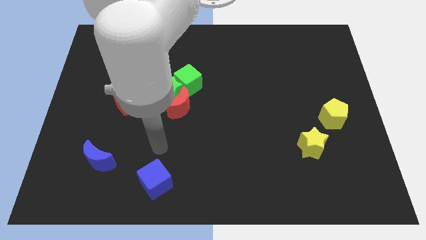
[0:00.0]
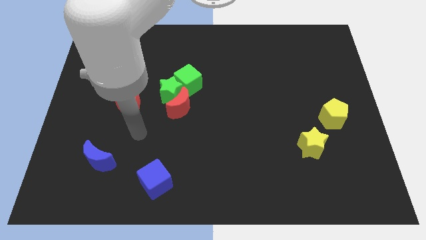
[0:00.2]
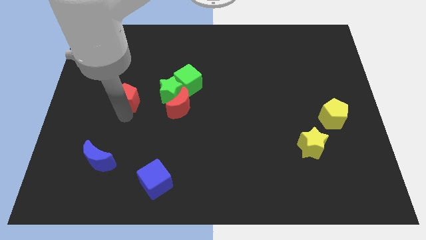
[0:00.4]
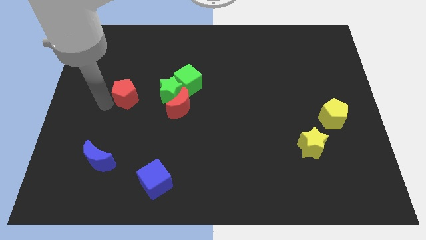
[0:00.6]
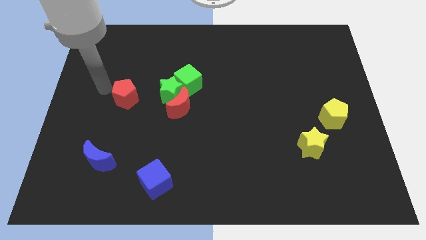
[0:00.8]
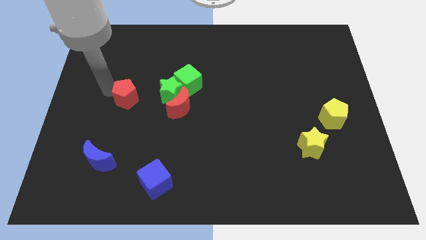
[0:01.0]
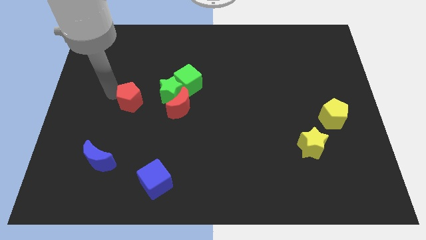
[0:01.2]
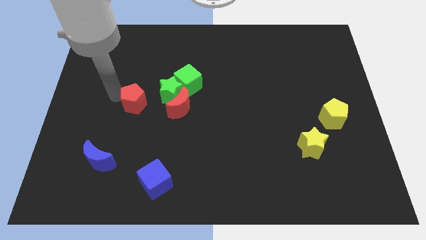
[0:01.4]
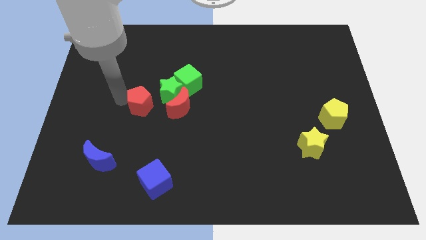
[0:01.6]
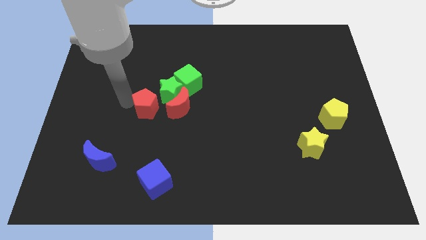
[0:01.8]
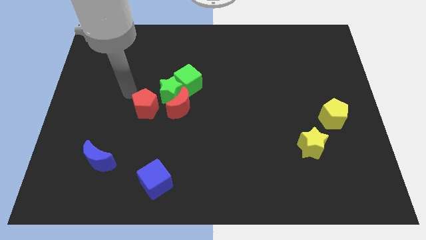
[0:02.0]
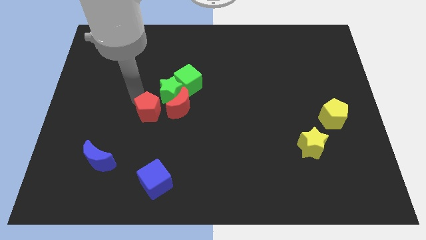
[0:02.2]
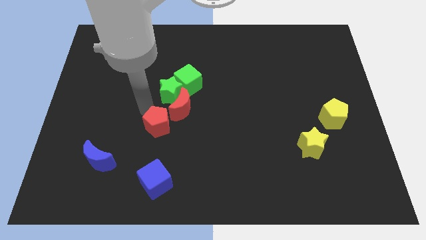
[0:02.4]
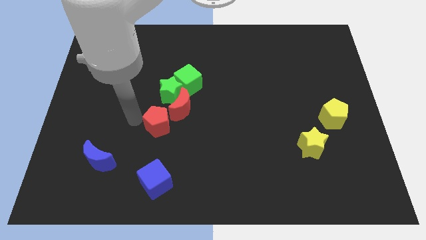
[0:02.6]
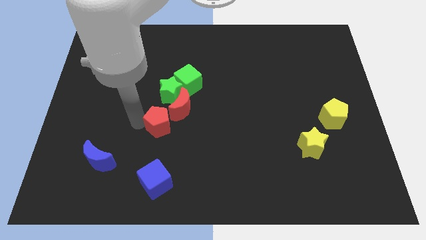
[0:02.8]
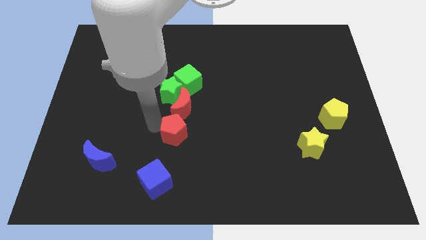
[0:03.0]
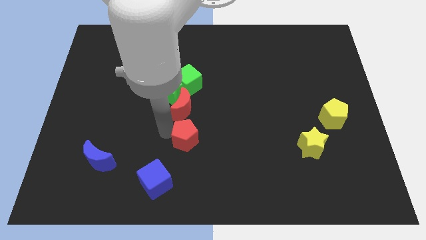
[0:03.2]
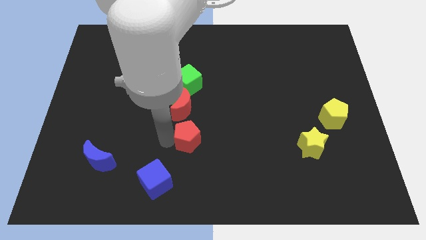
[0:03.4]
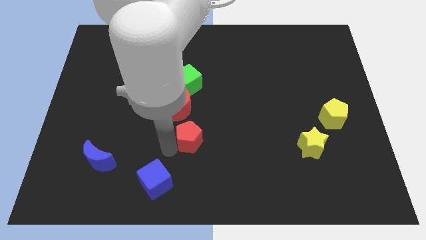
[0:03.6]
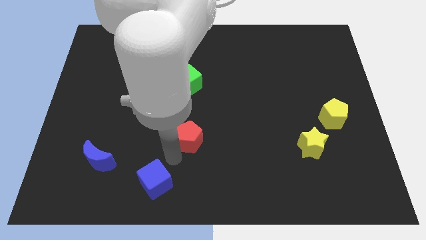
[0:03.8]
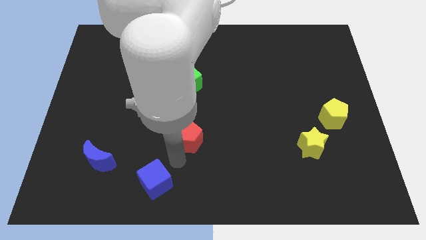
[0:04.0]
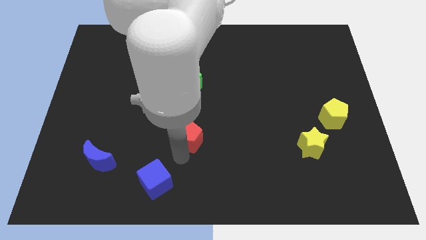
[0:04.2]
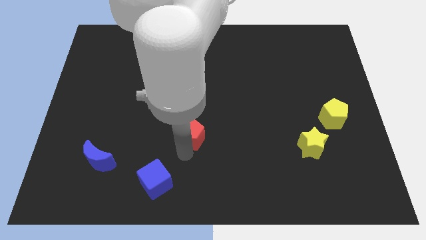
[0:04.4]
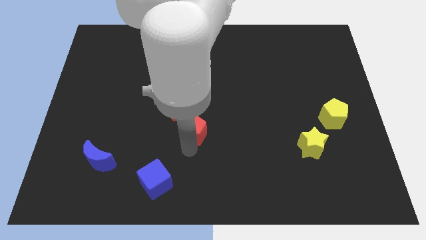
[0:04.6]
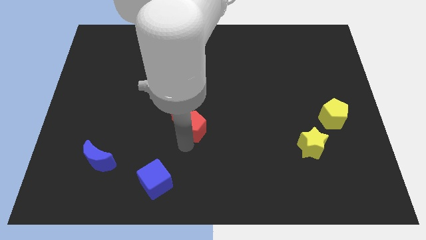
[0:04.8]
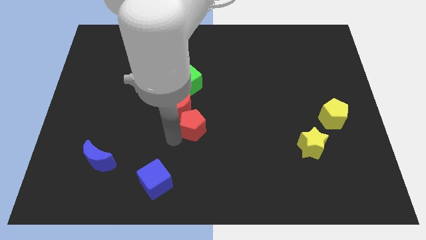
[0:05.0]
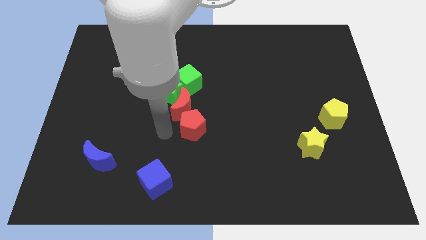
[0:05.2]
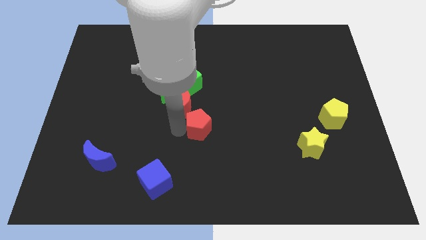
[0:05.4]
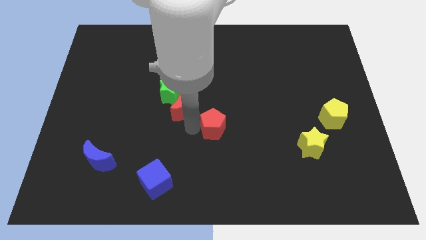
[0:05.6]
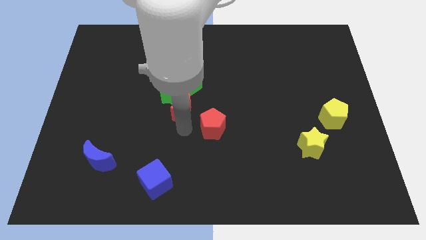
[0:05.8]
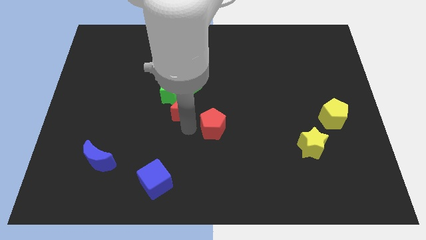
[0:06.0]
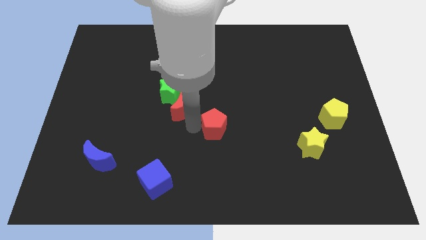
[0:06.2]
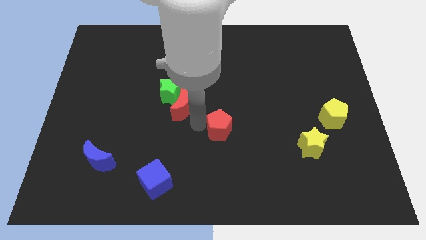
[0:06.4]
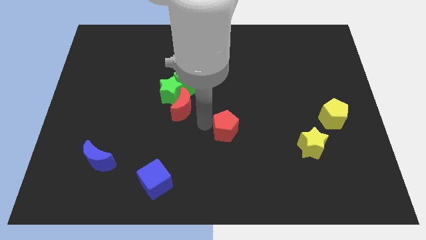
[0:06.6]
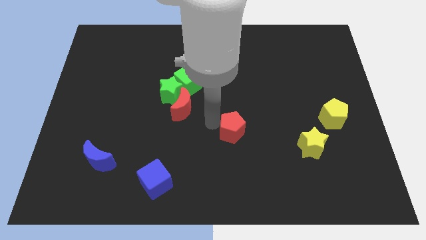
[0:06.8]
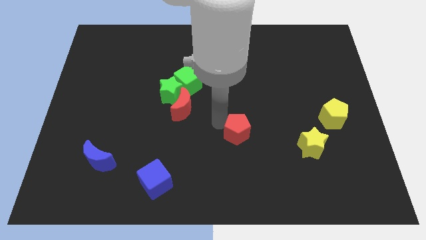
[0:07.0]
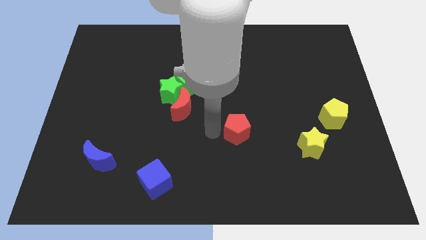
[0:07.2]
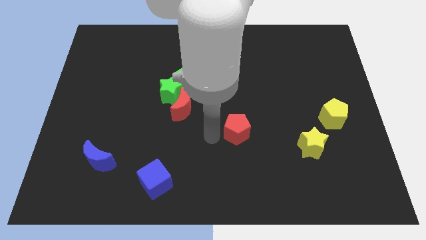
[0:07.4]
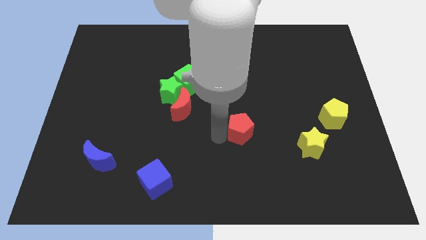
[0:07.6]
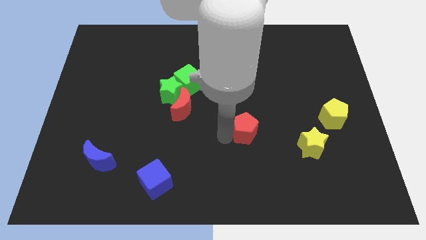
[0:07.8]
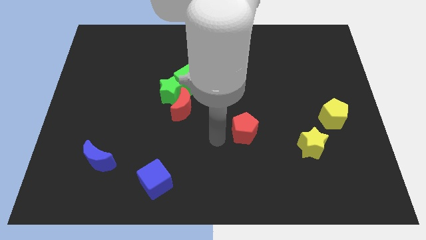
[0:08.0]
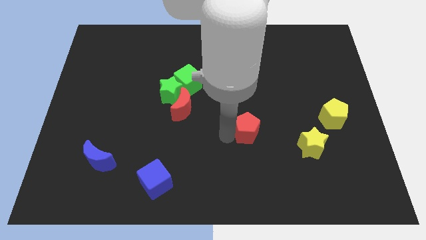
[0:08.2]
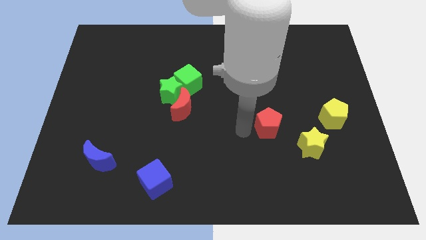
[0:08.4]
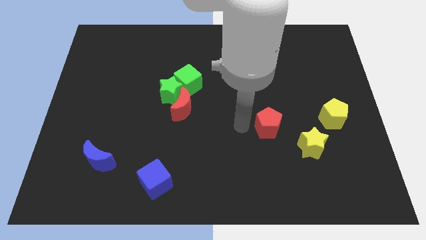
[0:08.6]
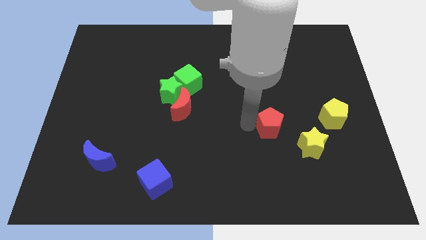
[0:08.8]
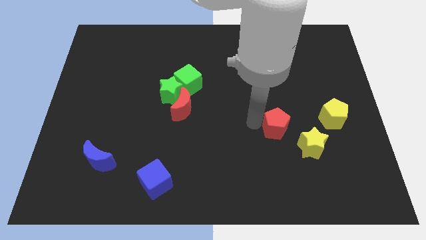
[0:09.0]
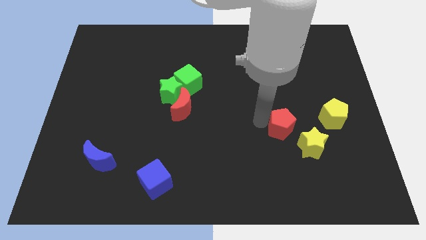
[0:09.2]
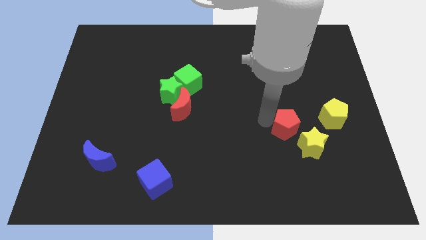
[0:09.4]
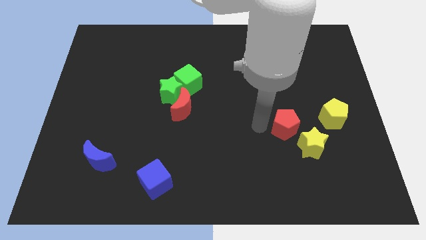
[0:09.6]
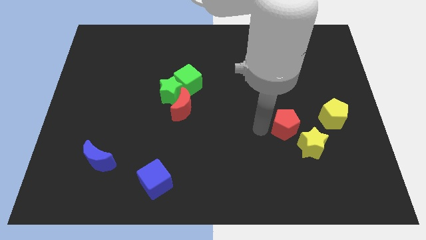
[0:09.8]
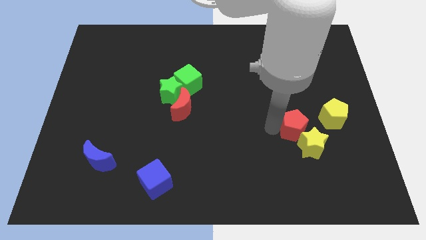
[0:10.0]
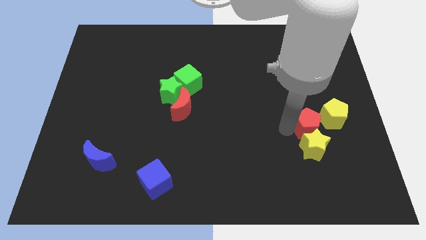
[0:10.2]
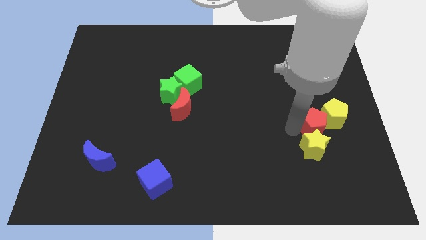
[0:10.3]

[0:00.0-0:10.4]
push the red pentagon close to the yellow pentagon

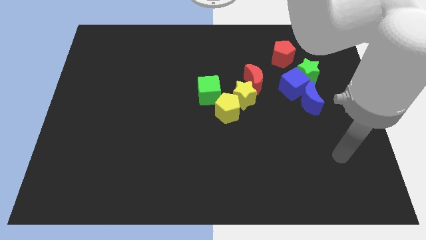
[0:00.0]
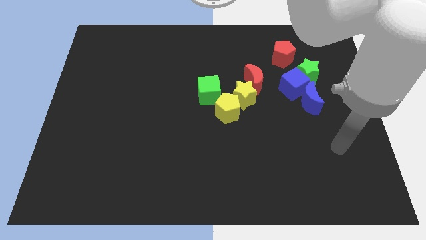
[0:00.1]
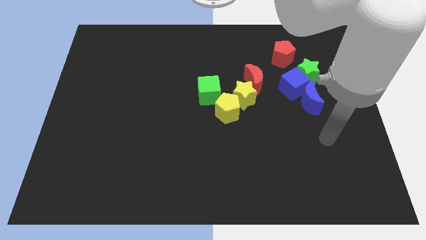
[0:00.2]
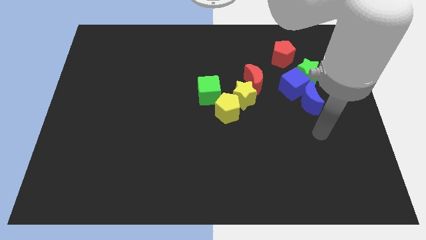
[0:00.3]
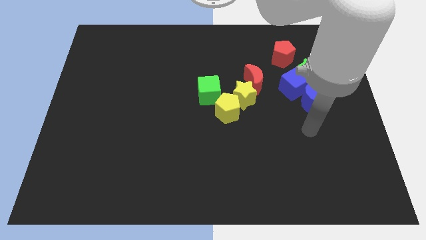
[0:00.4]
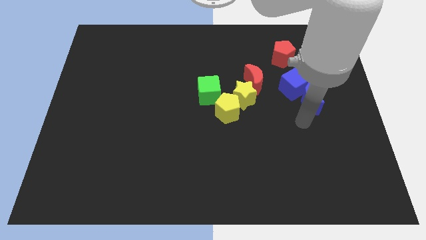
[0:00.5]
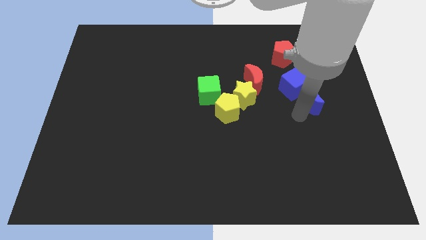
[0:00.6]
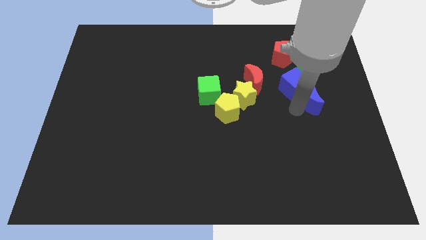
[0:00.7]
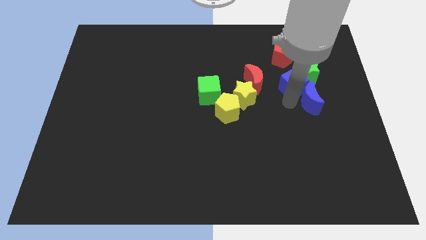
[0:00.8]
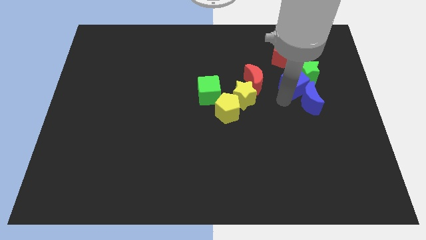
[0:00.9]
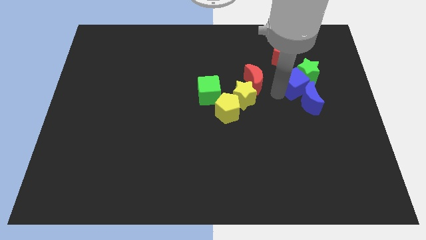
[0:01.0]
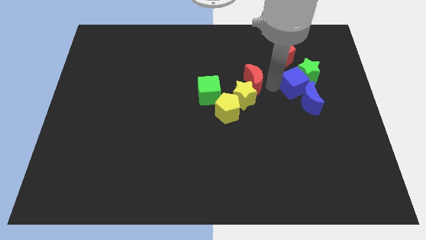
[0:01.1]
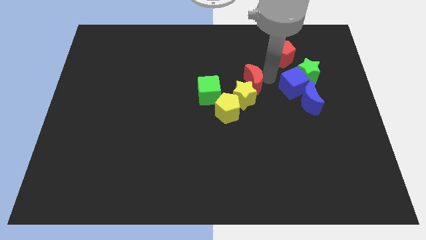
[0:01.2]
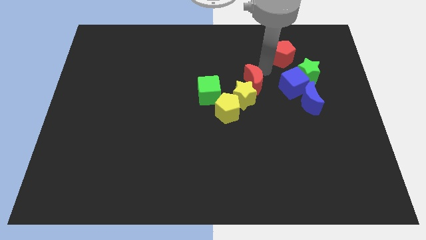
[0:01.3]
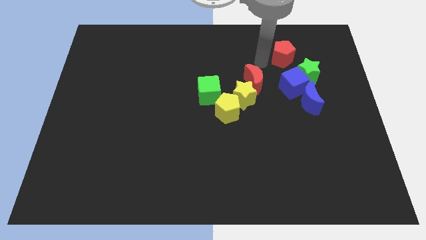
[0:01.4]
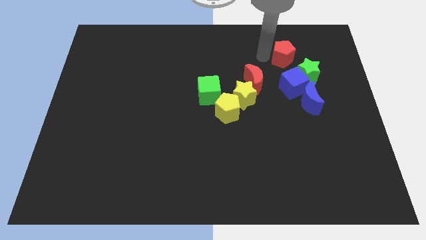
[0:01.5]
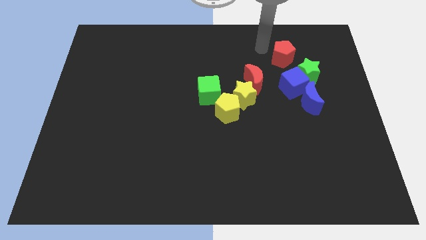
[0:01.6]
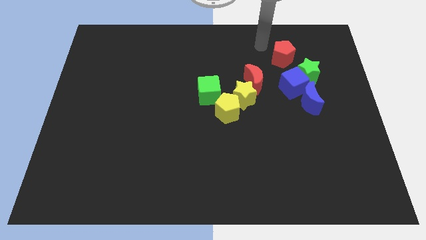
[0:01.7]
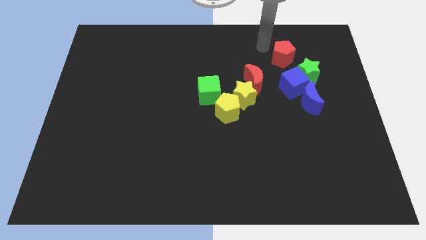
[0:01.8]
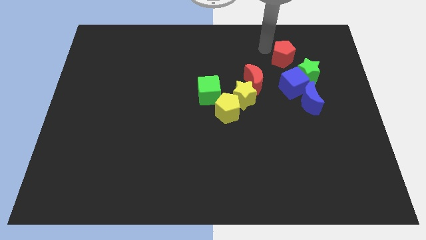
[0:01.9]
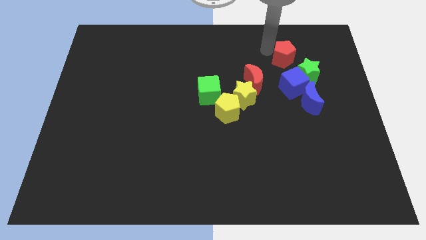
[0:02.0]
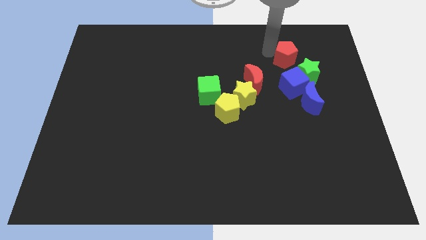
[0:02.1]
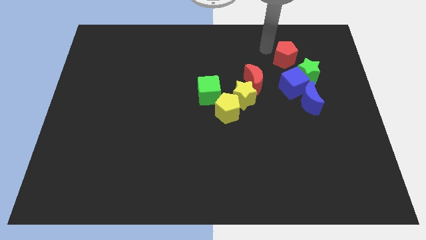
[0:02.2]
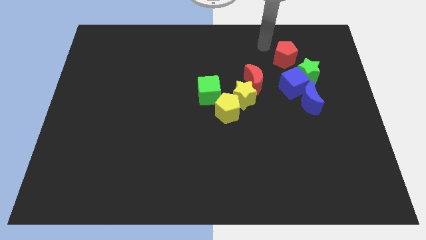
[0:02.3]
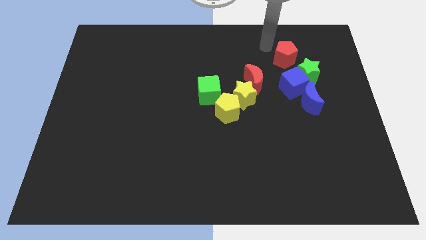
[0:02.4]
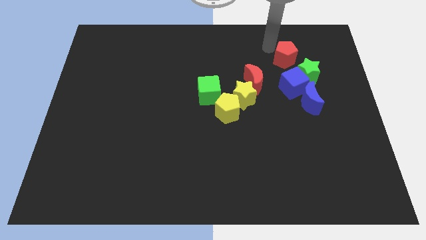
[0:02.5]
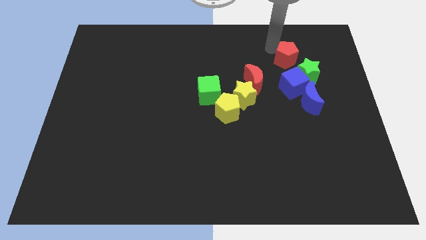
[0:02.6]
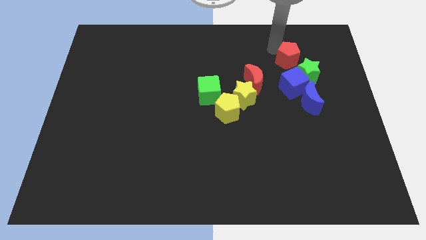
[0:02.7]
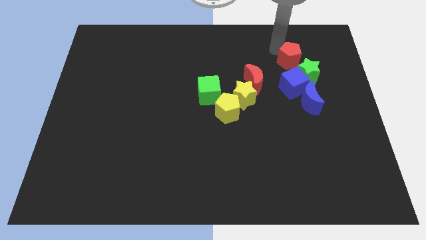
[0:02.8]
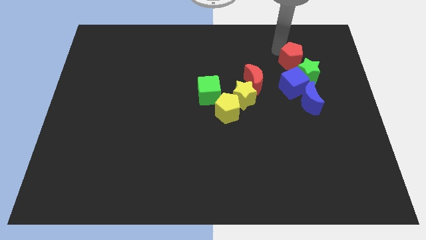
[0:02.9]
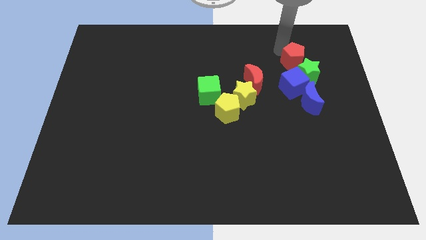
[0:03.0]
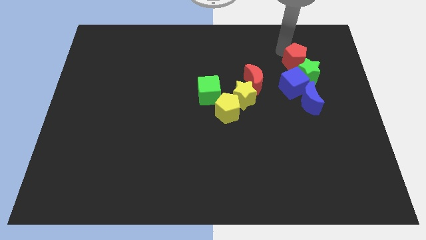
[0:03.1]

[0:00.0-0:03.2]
put the red pentagon to the green star
